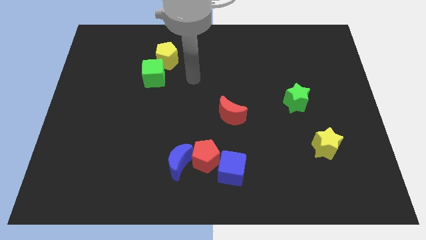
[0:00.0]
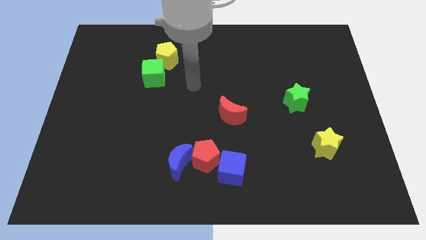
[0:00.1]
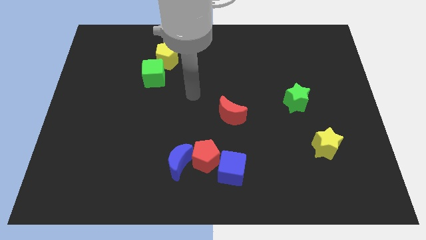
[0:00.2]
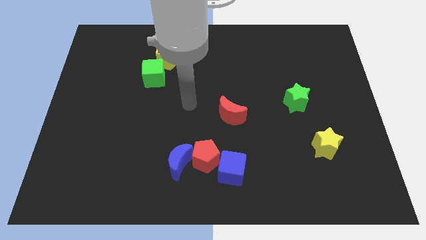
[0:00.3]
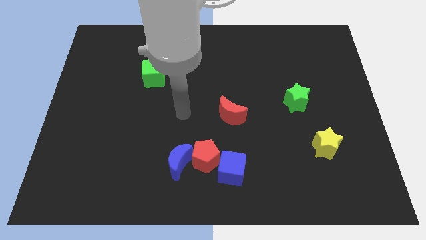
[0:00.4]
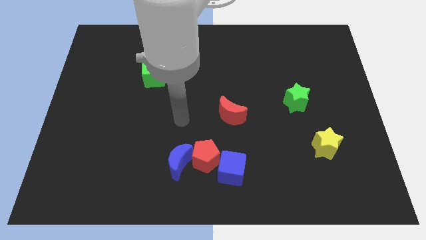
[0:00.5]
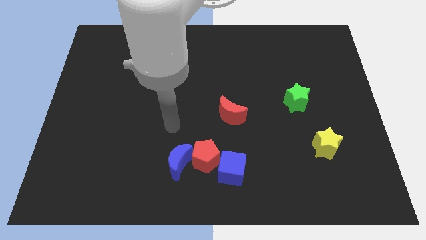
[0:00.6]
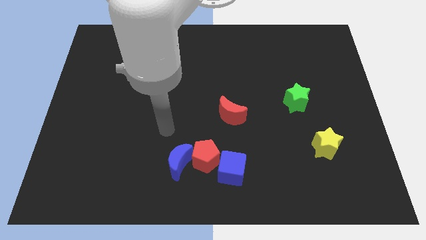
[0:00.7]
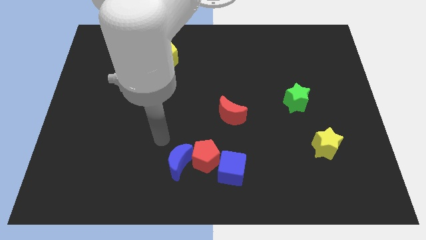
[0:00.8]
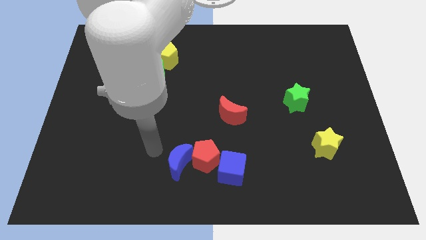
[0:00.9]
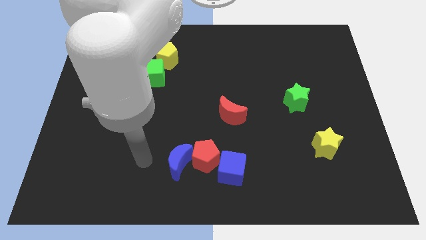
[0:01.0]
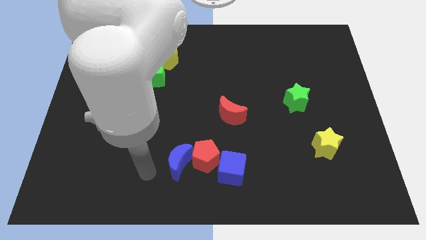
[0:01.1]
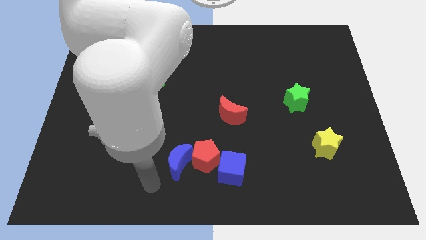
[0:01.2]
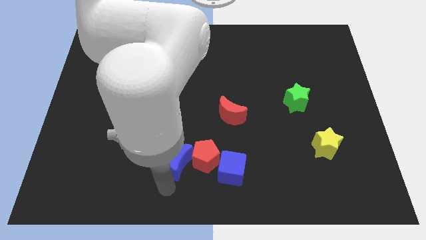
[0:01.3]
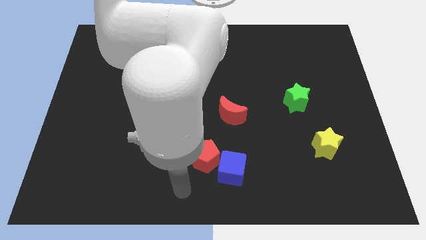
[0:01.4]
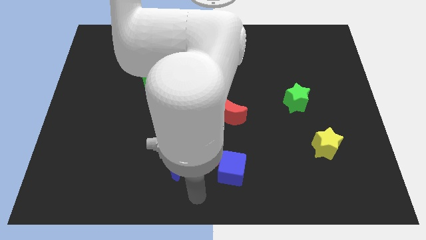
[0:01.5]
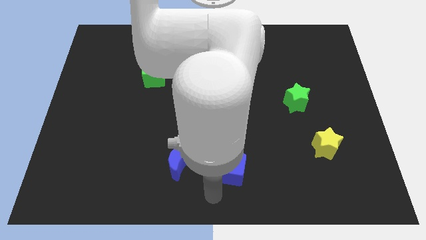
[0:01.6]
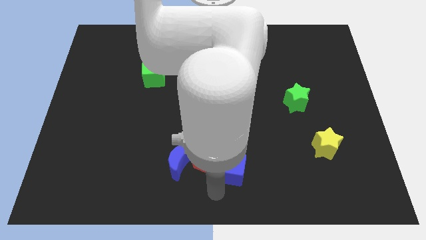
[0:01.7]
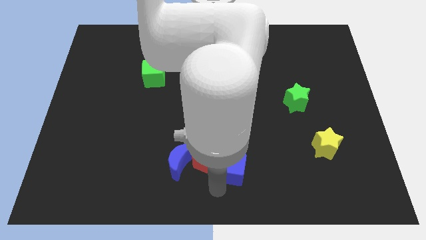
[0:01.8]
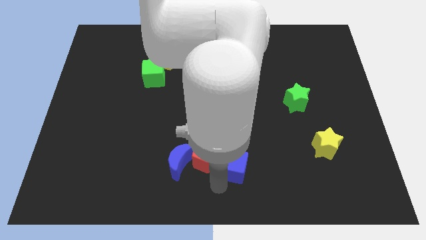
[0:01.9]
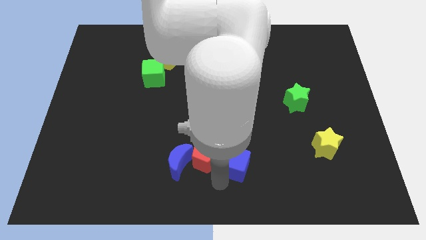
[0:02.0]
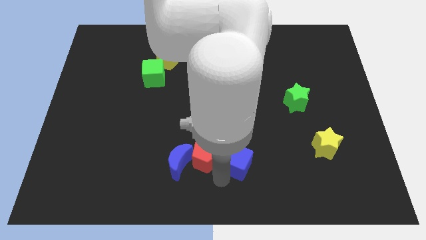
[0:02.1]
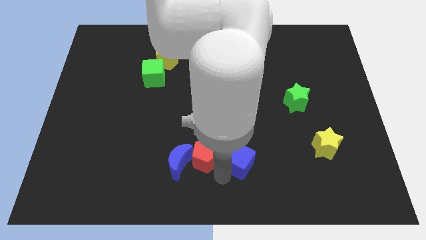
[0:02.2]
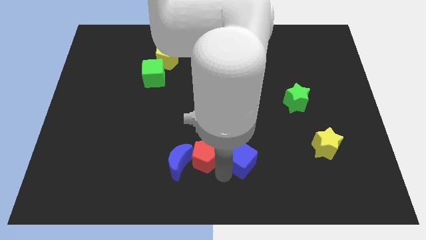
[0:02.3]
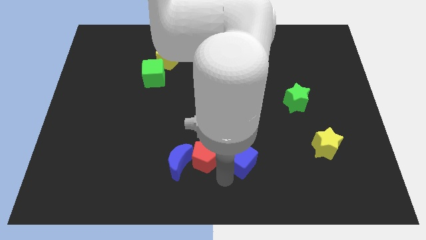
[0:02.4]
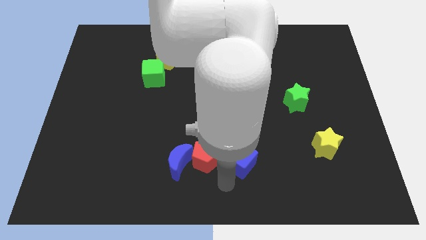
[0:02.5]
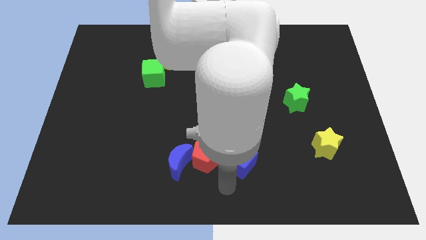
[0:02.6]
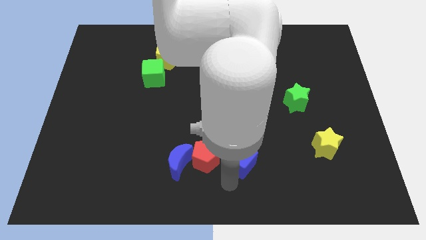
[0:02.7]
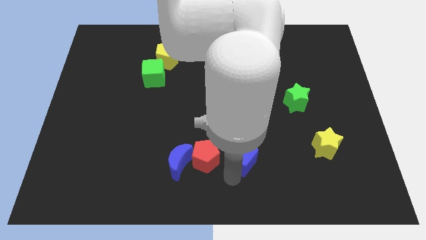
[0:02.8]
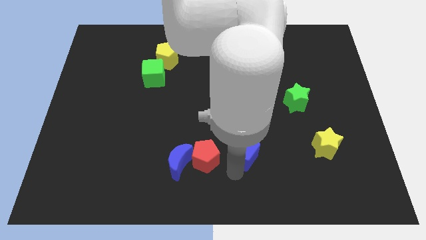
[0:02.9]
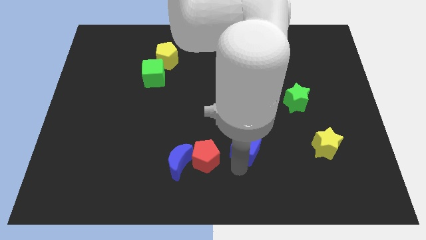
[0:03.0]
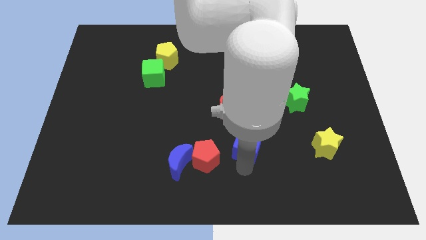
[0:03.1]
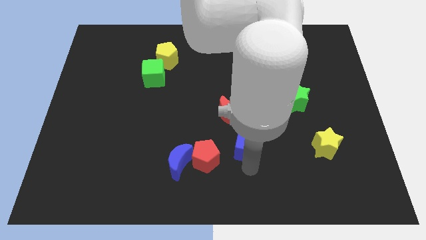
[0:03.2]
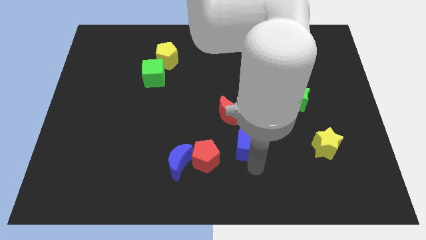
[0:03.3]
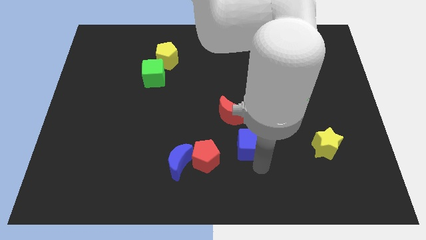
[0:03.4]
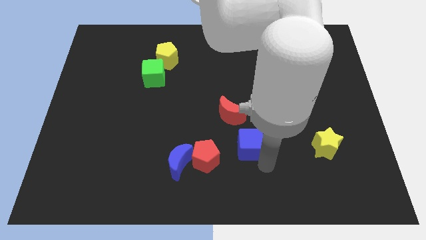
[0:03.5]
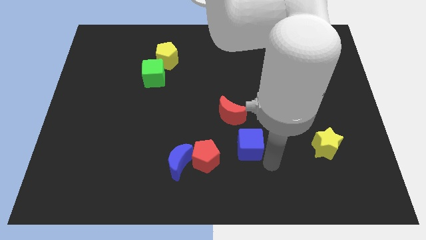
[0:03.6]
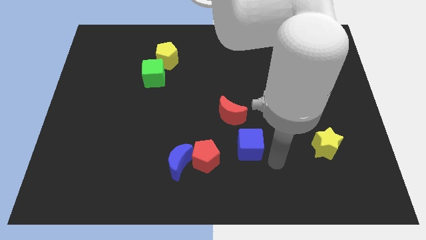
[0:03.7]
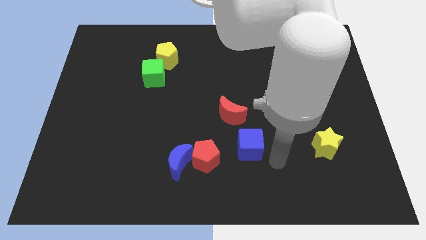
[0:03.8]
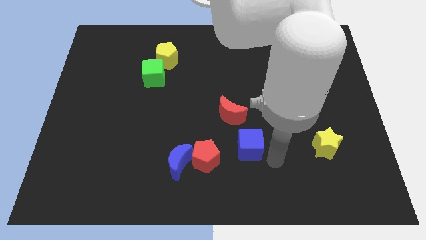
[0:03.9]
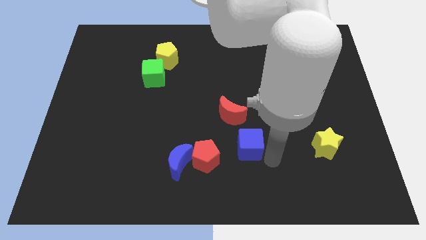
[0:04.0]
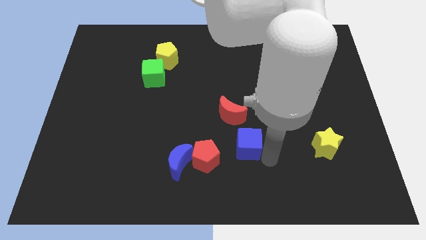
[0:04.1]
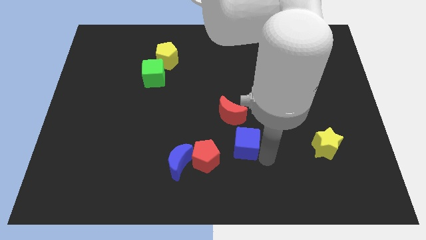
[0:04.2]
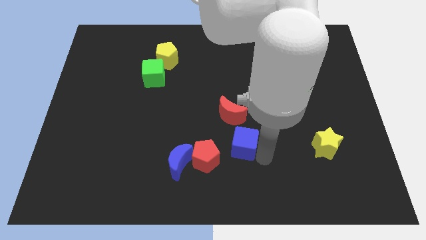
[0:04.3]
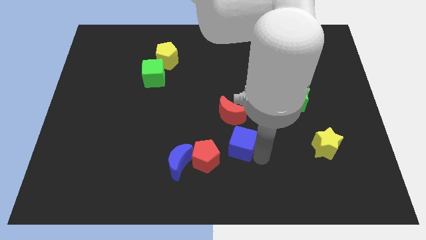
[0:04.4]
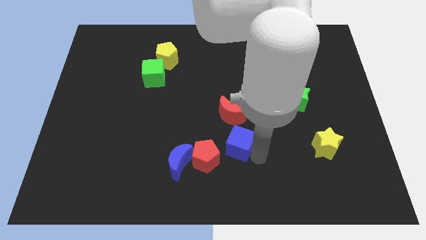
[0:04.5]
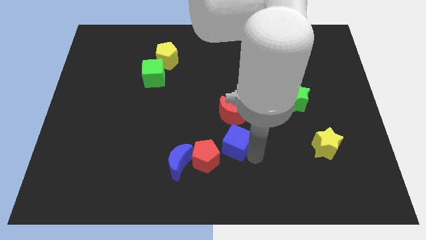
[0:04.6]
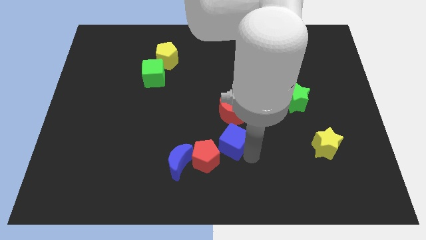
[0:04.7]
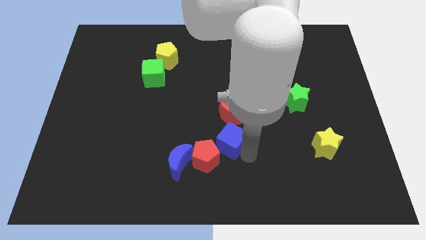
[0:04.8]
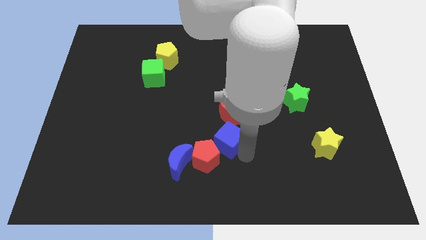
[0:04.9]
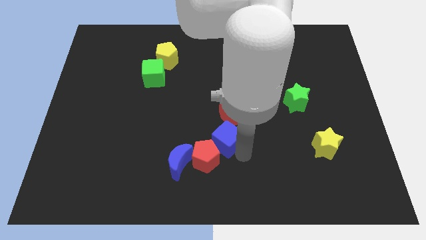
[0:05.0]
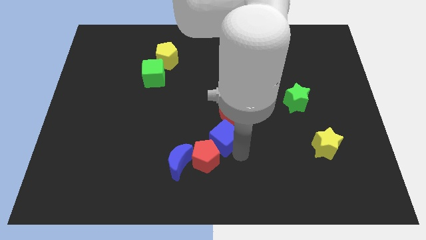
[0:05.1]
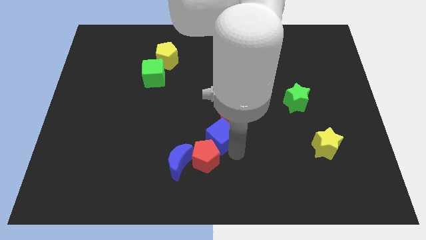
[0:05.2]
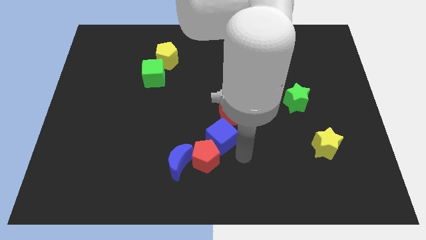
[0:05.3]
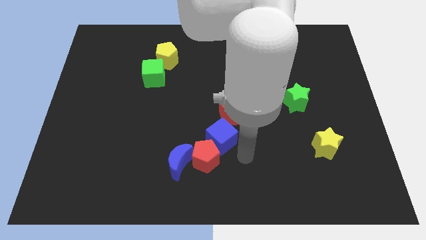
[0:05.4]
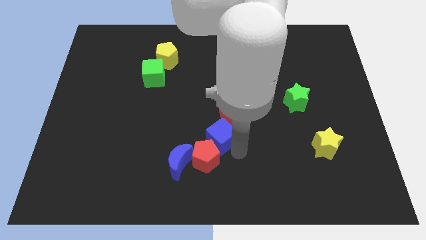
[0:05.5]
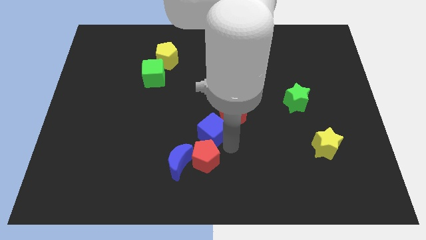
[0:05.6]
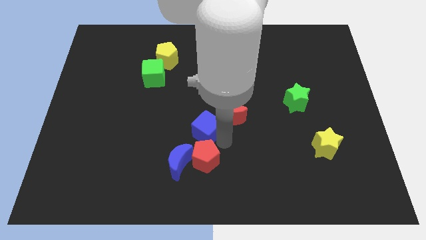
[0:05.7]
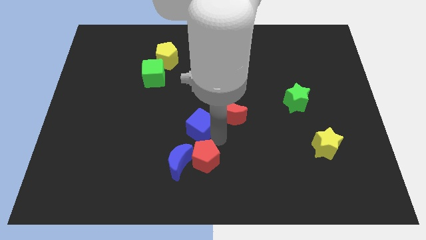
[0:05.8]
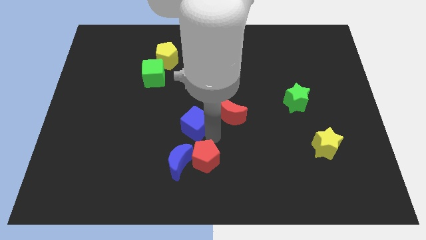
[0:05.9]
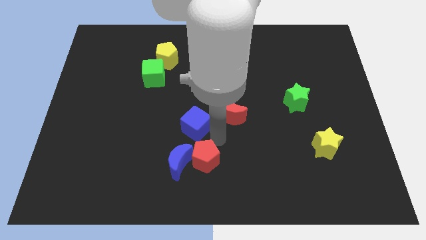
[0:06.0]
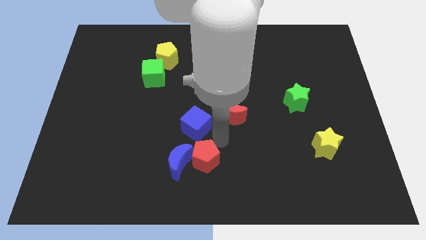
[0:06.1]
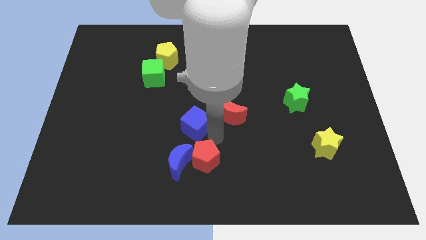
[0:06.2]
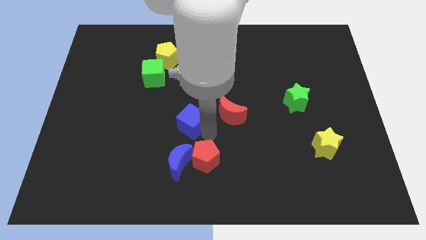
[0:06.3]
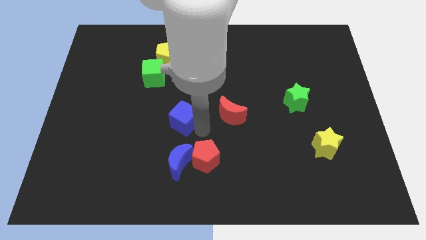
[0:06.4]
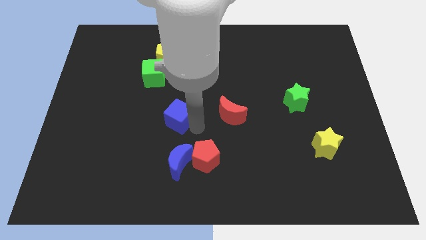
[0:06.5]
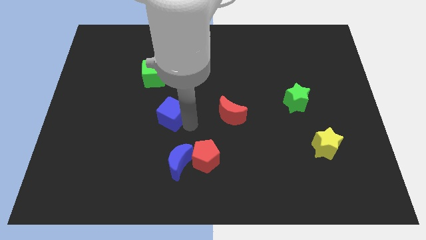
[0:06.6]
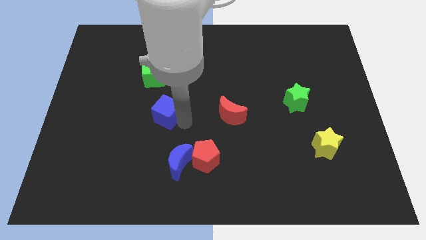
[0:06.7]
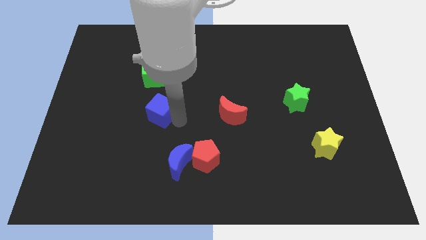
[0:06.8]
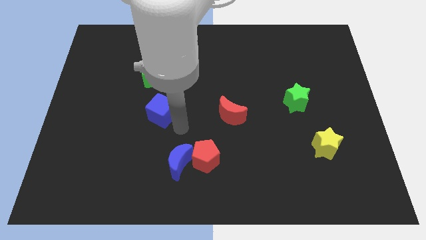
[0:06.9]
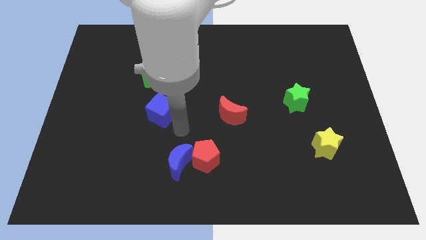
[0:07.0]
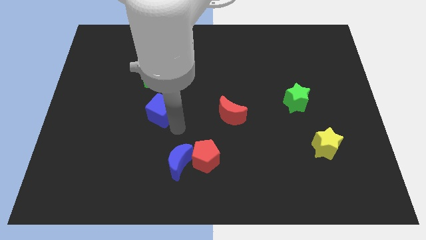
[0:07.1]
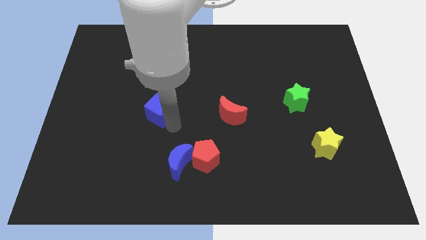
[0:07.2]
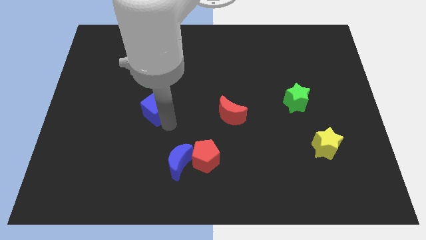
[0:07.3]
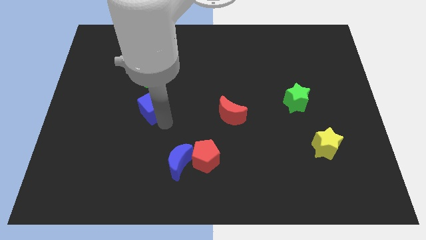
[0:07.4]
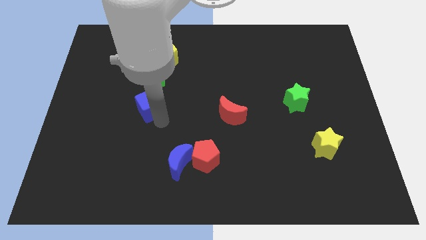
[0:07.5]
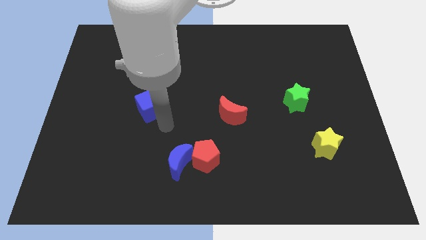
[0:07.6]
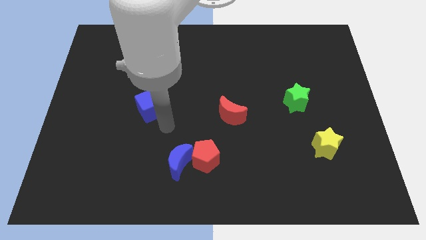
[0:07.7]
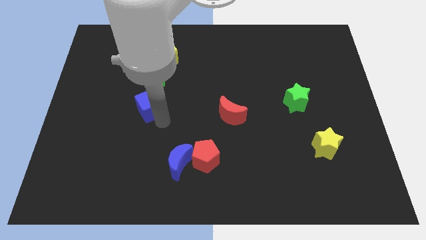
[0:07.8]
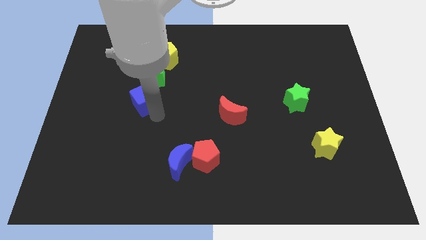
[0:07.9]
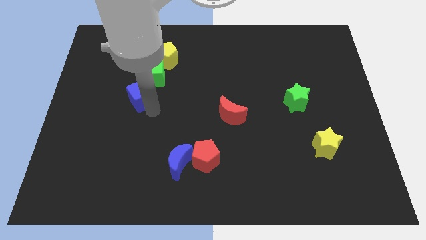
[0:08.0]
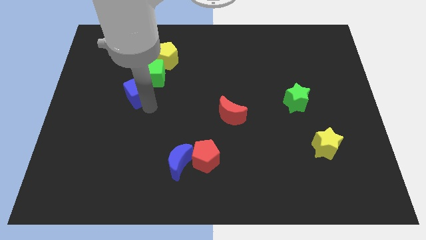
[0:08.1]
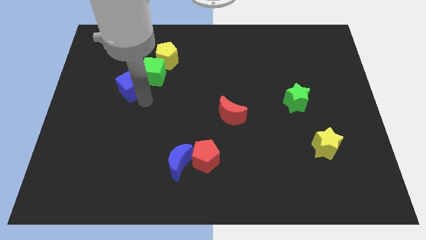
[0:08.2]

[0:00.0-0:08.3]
slide the blue cube just left of the green cube
